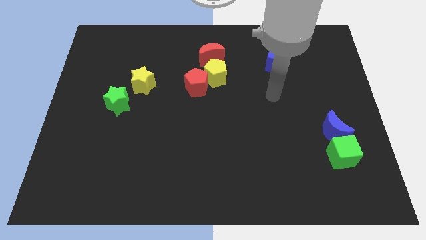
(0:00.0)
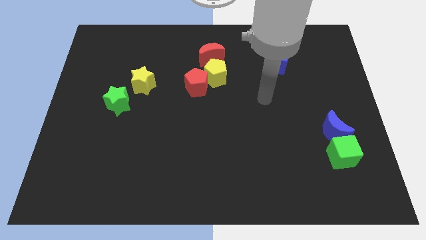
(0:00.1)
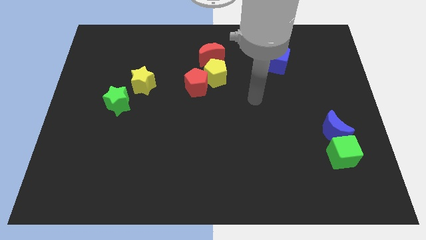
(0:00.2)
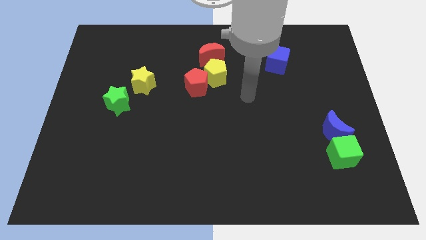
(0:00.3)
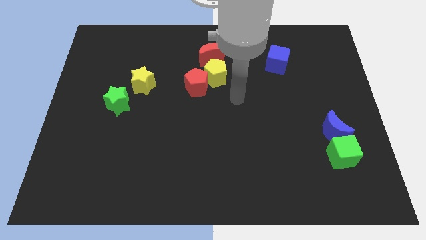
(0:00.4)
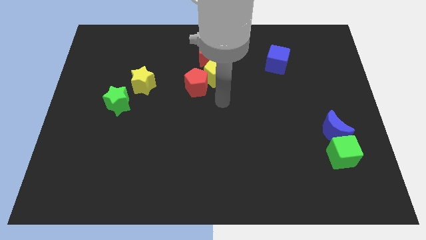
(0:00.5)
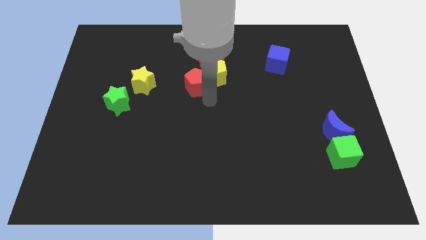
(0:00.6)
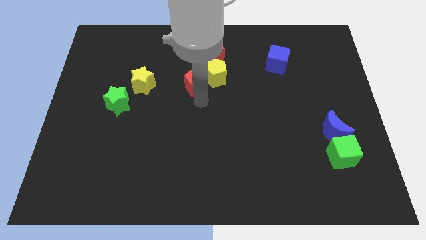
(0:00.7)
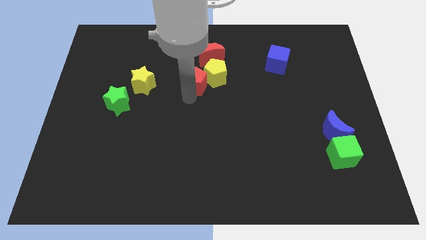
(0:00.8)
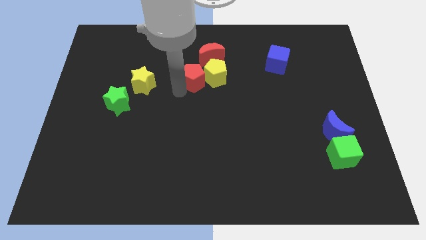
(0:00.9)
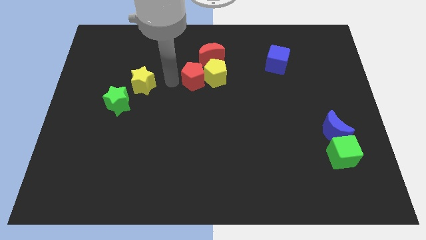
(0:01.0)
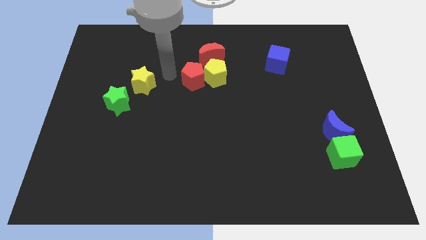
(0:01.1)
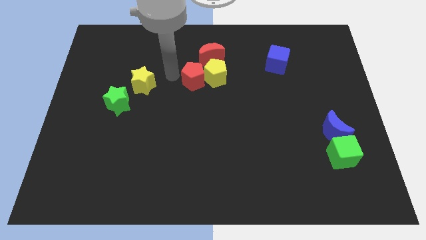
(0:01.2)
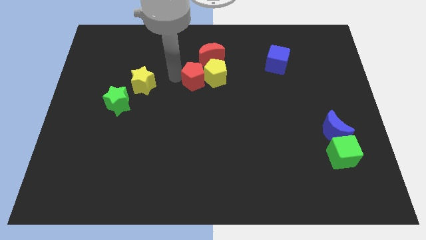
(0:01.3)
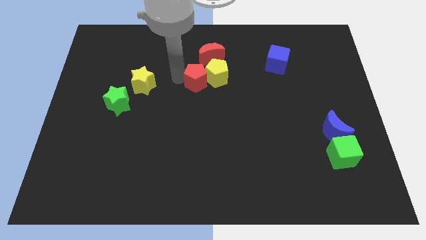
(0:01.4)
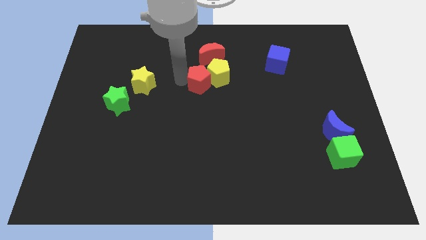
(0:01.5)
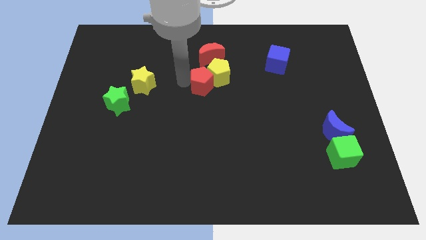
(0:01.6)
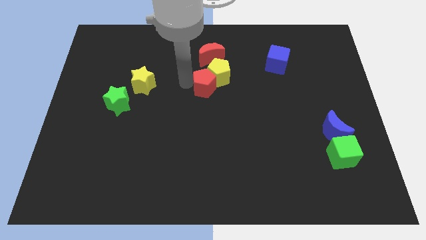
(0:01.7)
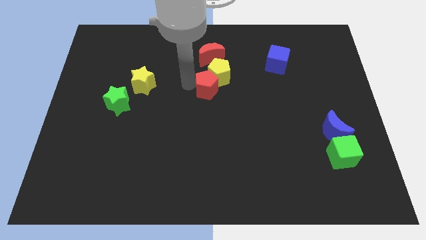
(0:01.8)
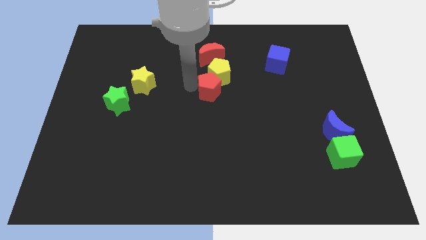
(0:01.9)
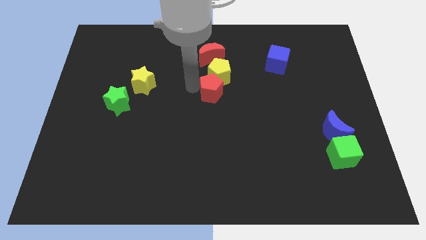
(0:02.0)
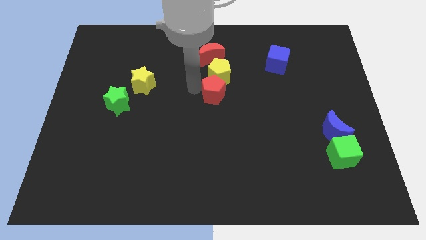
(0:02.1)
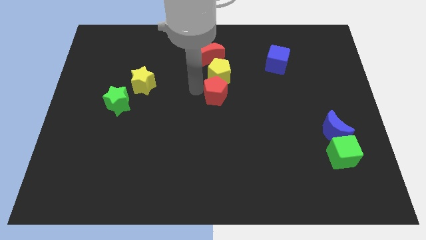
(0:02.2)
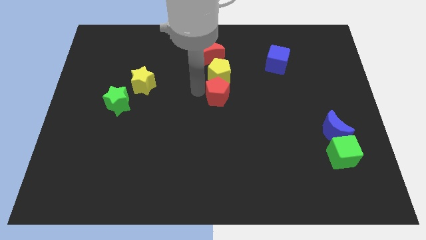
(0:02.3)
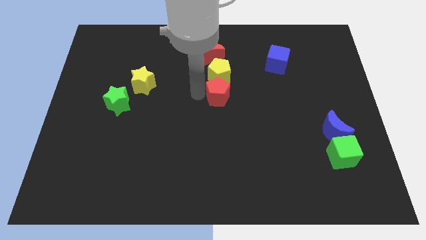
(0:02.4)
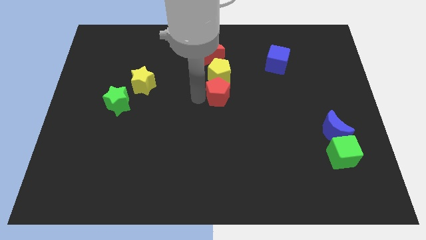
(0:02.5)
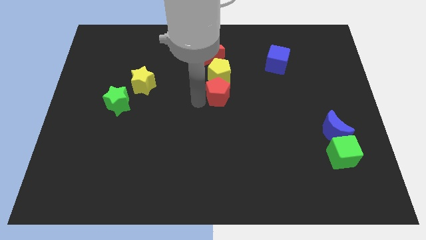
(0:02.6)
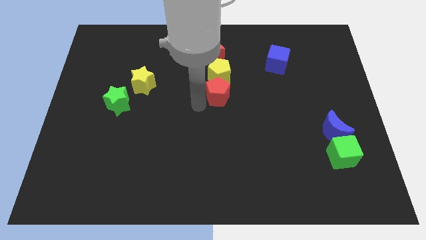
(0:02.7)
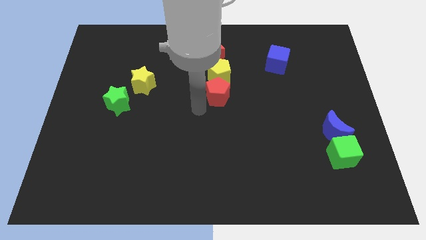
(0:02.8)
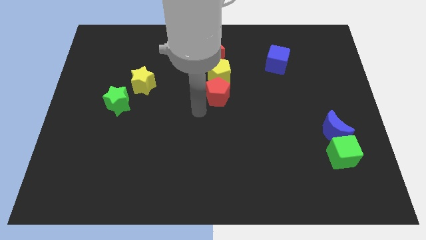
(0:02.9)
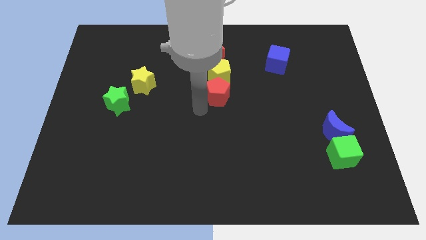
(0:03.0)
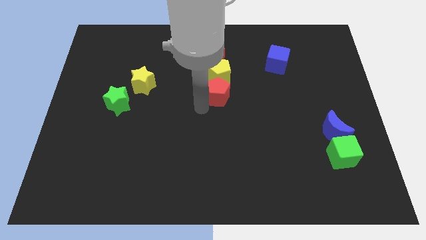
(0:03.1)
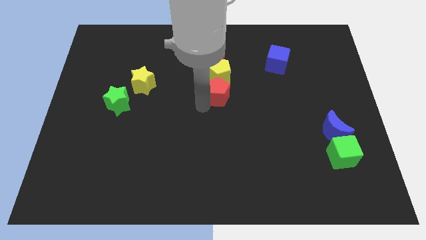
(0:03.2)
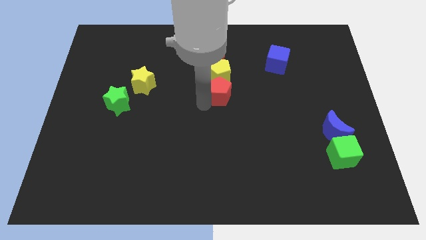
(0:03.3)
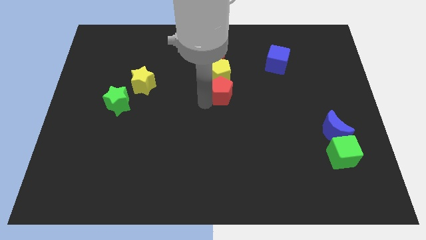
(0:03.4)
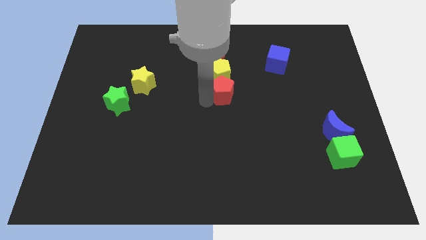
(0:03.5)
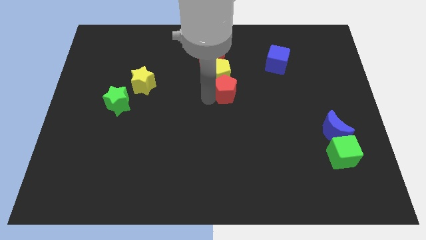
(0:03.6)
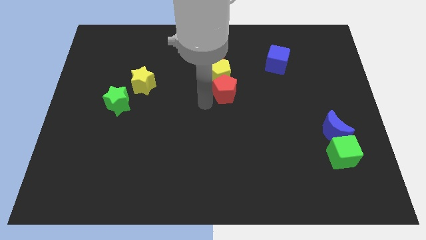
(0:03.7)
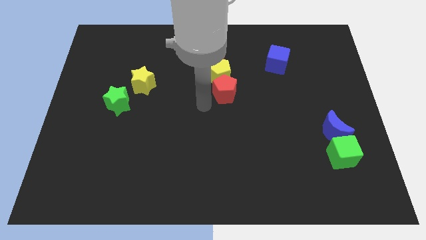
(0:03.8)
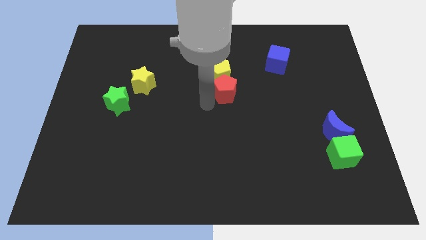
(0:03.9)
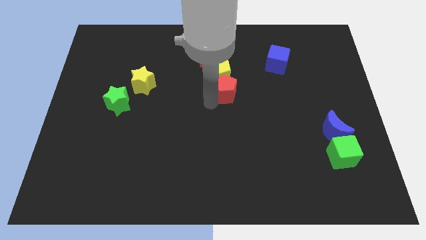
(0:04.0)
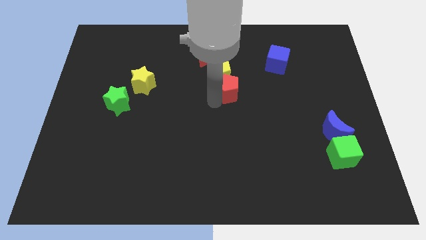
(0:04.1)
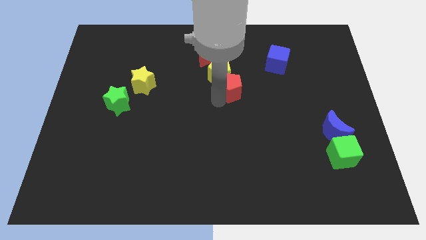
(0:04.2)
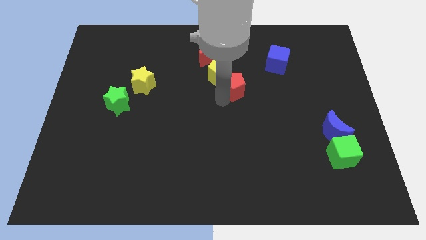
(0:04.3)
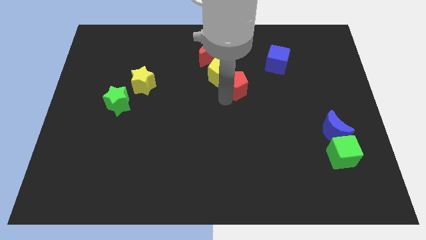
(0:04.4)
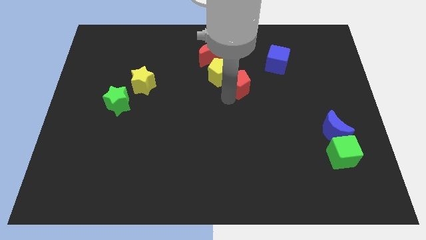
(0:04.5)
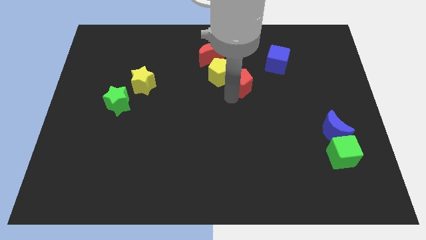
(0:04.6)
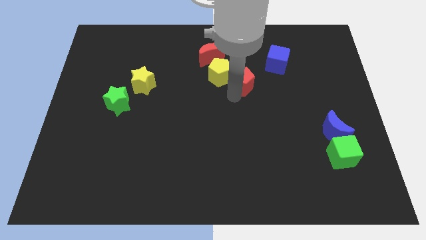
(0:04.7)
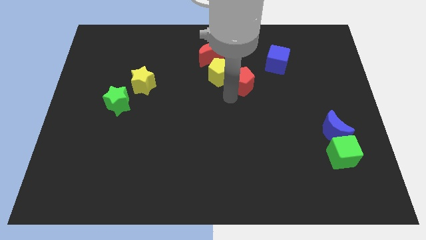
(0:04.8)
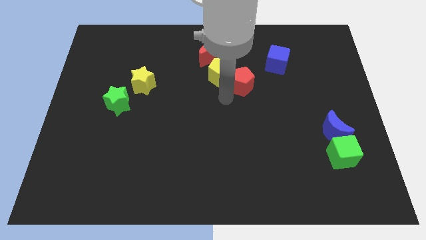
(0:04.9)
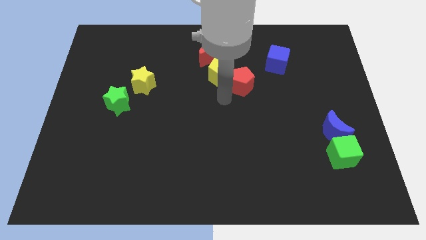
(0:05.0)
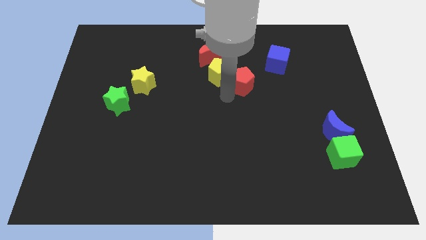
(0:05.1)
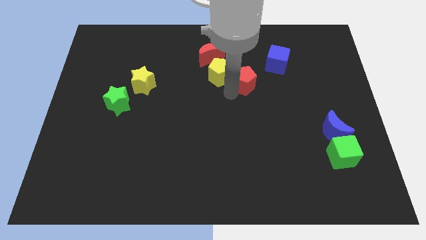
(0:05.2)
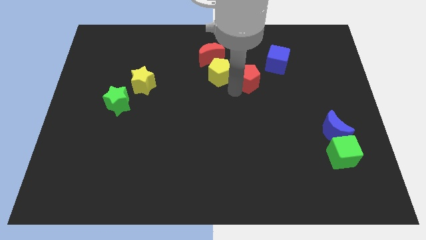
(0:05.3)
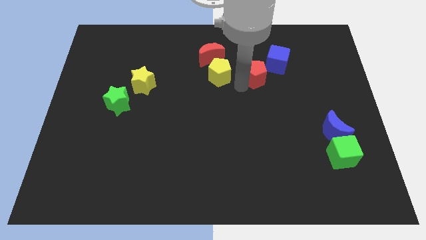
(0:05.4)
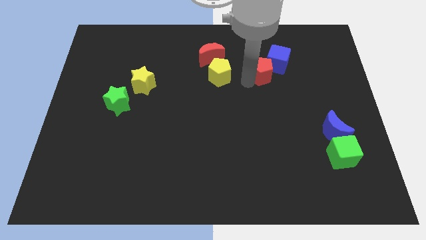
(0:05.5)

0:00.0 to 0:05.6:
move the red pentagon to the blue cube
